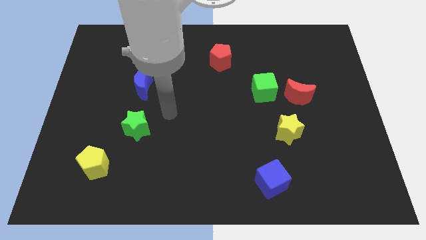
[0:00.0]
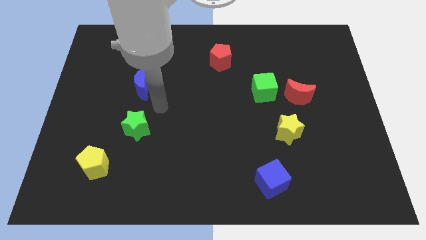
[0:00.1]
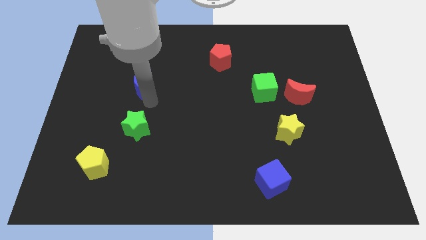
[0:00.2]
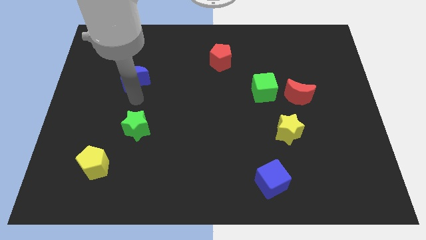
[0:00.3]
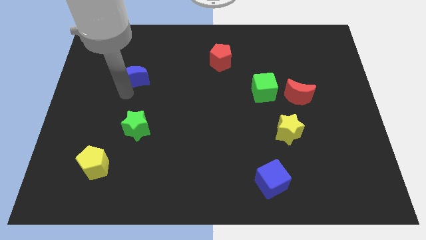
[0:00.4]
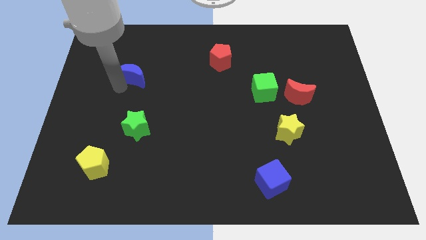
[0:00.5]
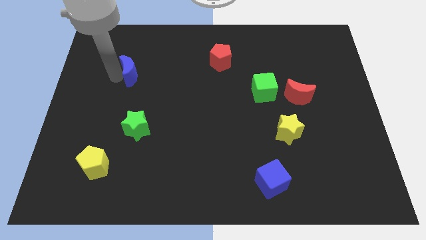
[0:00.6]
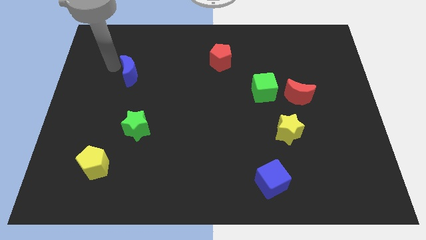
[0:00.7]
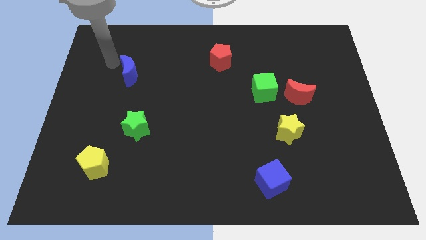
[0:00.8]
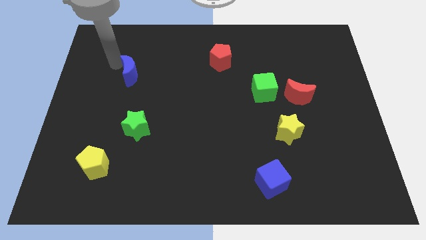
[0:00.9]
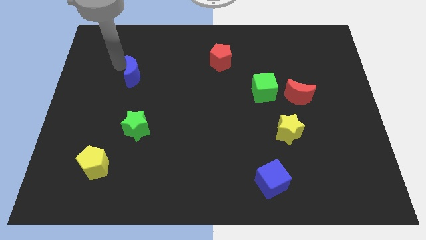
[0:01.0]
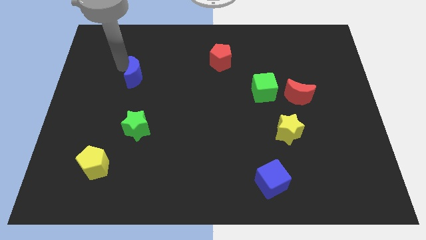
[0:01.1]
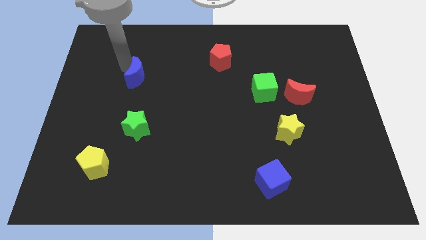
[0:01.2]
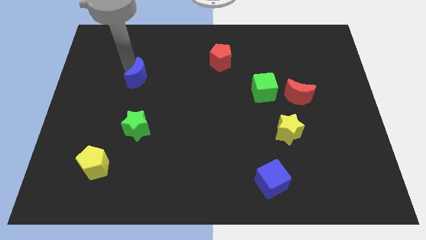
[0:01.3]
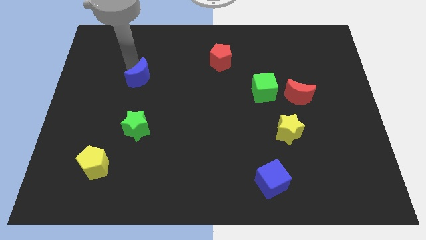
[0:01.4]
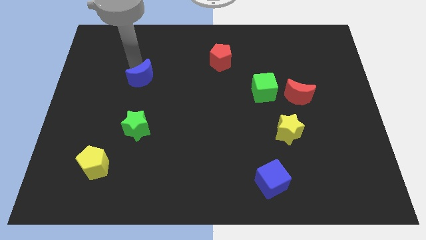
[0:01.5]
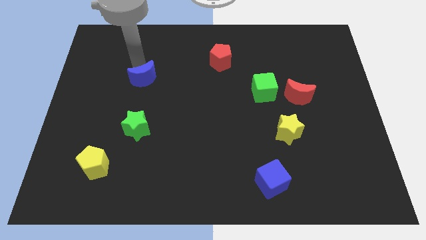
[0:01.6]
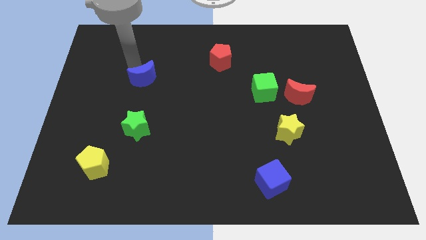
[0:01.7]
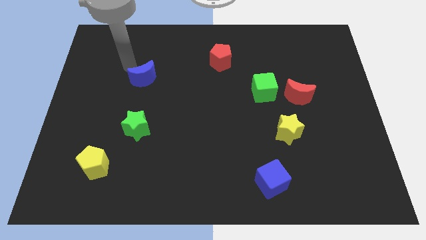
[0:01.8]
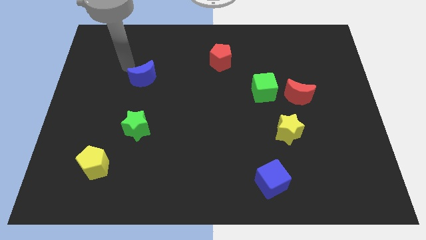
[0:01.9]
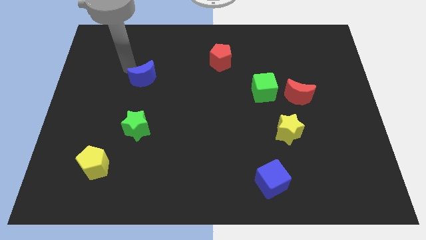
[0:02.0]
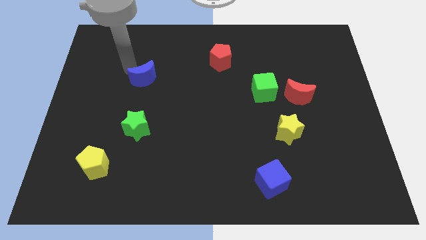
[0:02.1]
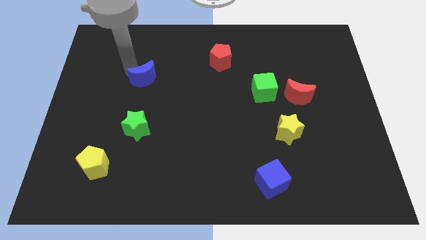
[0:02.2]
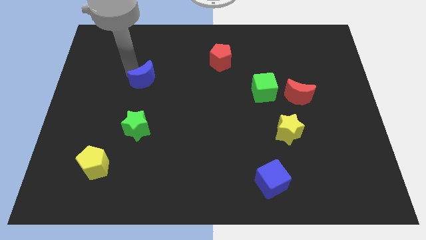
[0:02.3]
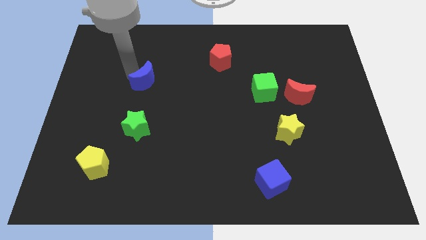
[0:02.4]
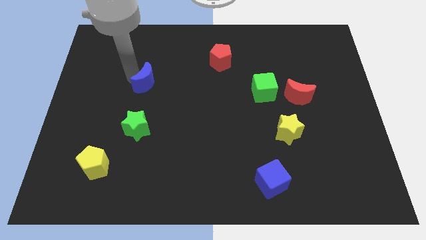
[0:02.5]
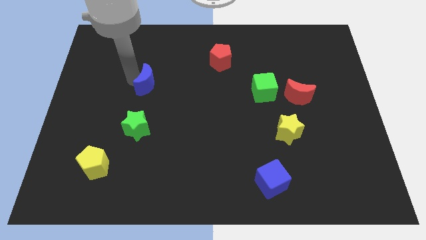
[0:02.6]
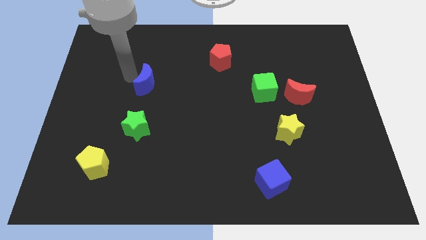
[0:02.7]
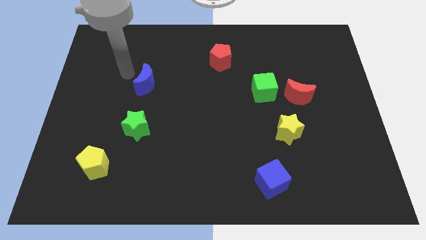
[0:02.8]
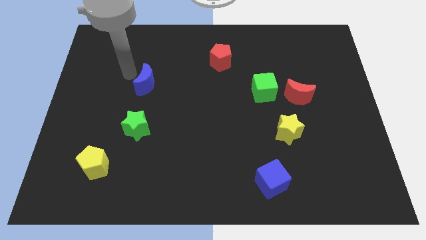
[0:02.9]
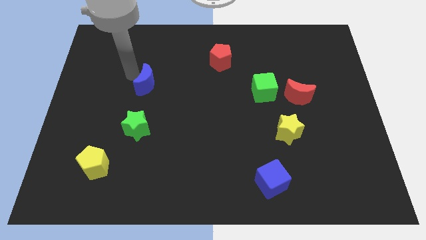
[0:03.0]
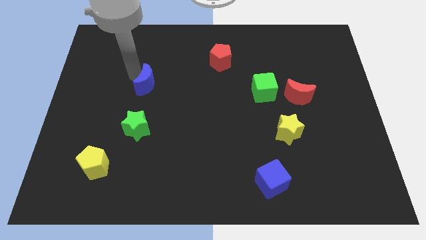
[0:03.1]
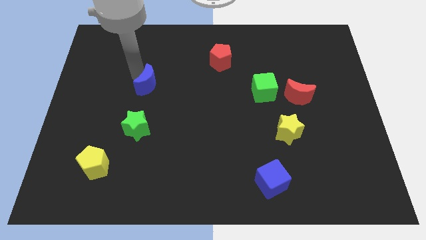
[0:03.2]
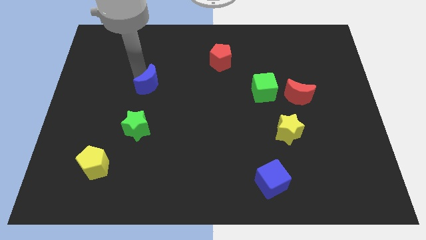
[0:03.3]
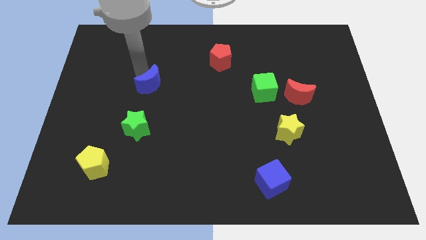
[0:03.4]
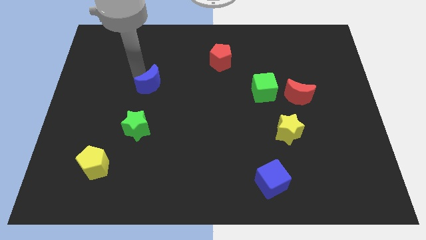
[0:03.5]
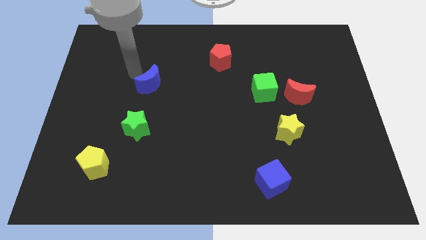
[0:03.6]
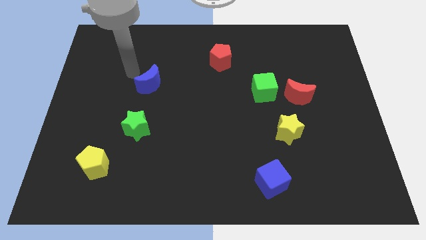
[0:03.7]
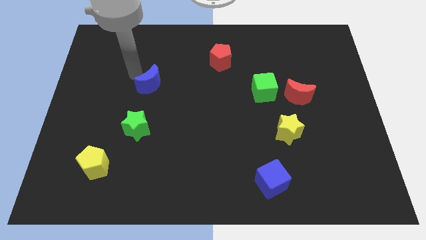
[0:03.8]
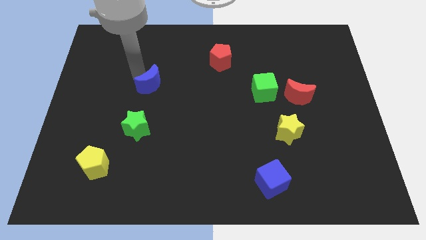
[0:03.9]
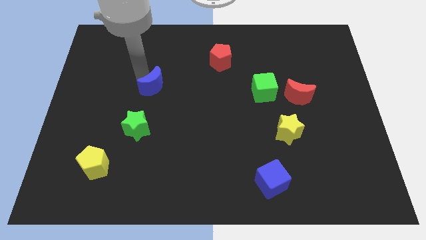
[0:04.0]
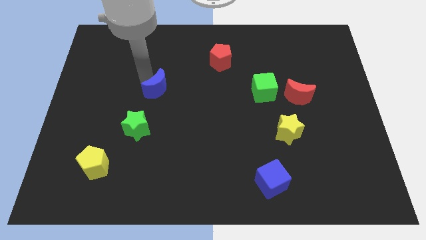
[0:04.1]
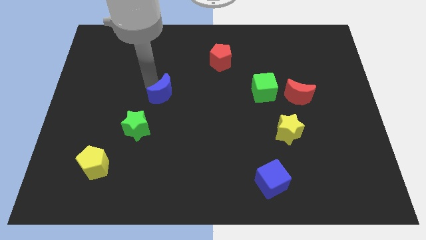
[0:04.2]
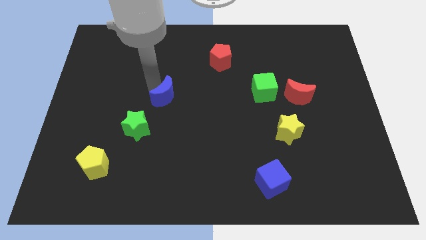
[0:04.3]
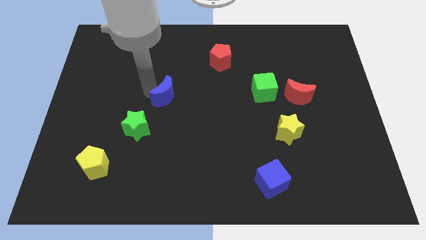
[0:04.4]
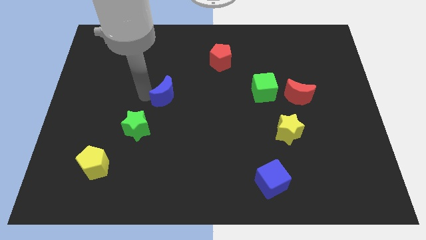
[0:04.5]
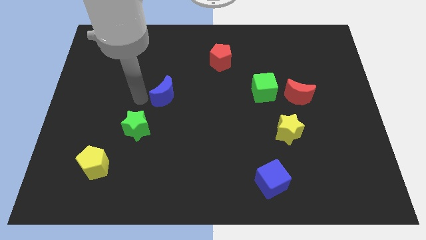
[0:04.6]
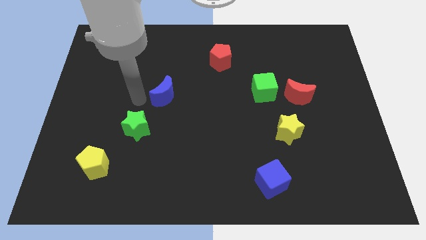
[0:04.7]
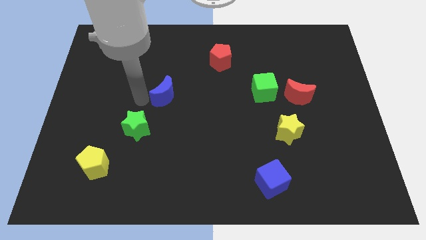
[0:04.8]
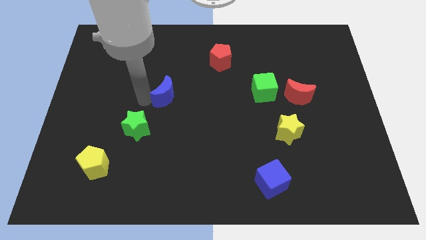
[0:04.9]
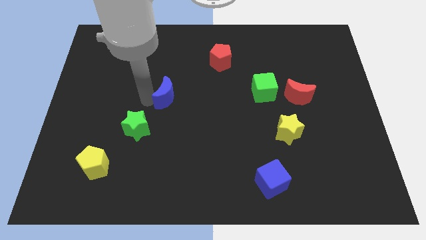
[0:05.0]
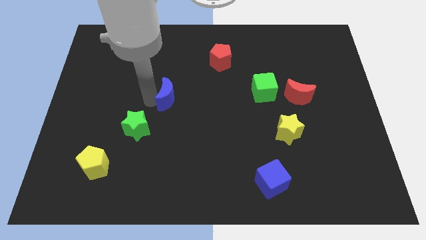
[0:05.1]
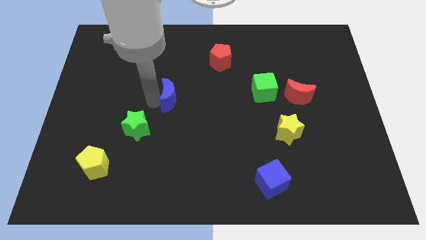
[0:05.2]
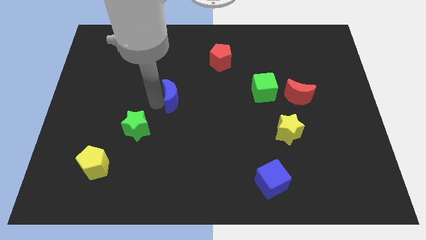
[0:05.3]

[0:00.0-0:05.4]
slightly move the blue moon right

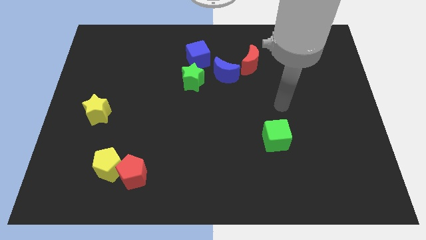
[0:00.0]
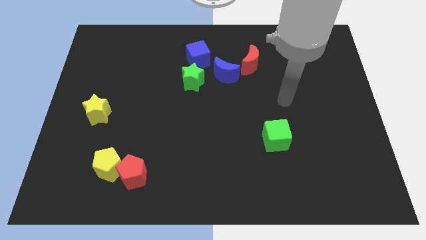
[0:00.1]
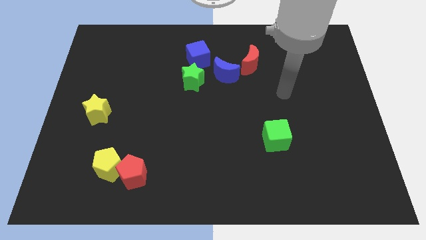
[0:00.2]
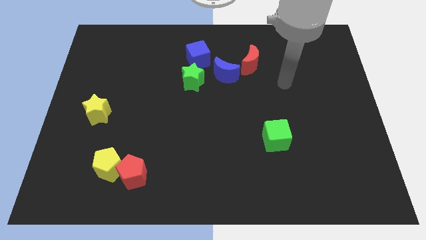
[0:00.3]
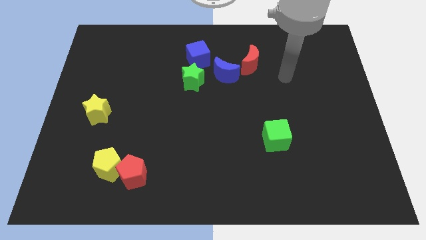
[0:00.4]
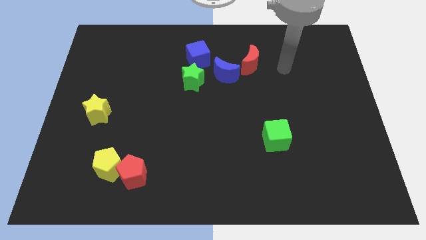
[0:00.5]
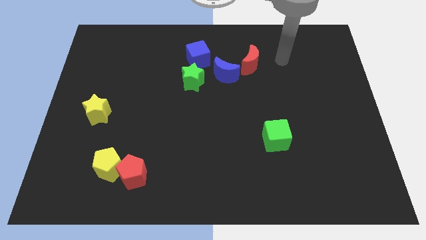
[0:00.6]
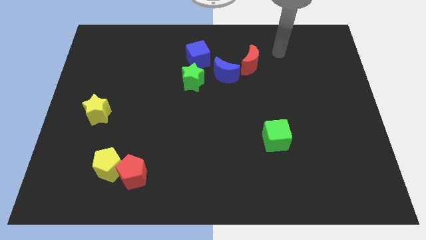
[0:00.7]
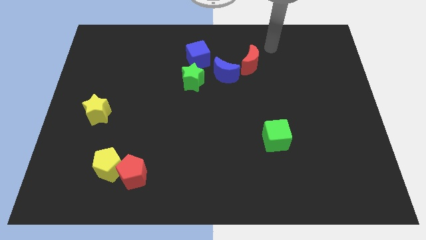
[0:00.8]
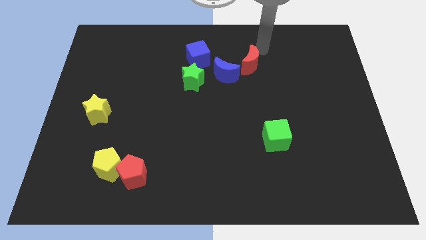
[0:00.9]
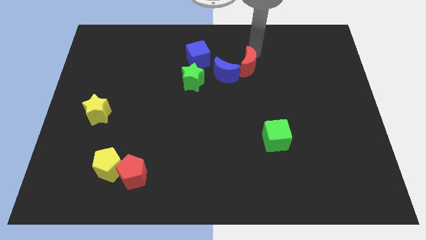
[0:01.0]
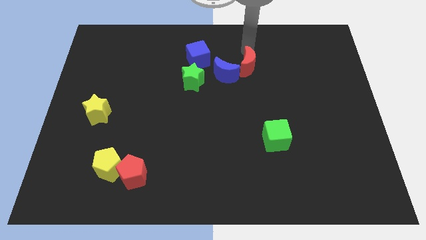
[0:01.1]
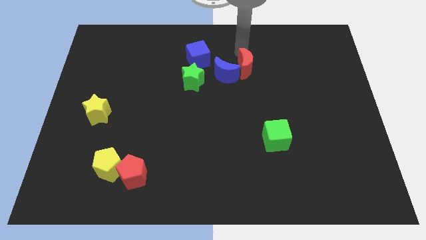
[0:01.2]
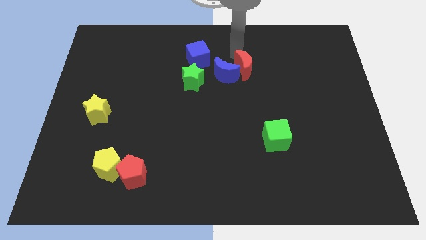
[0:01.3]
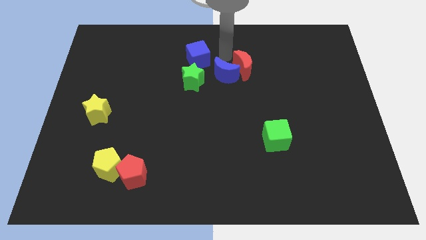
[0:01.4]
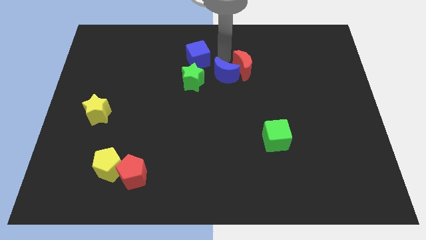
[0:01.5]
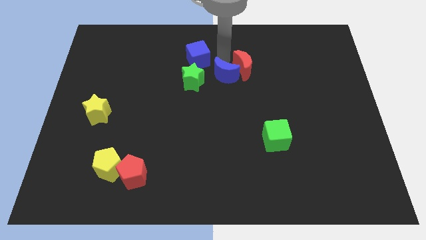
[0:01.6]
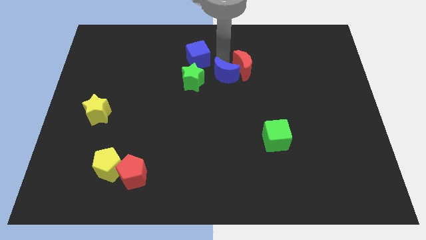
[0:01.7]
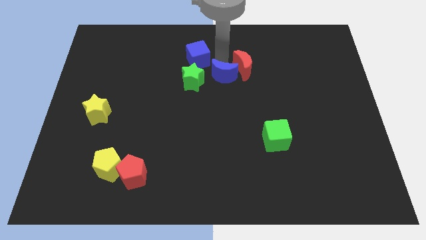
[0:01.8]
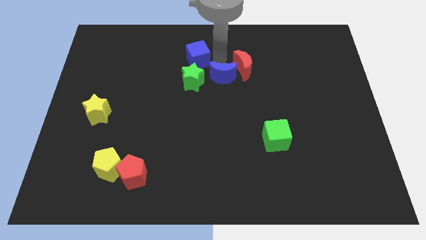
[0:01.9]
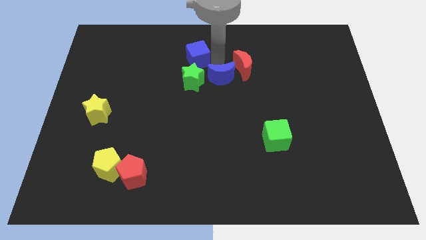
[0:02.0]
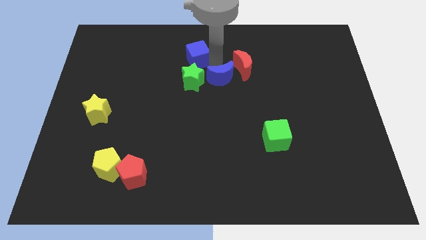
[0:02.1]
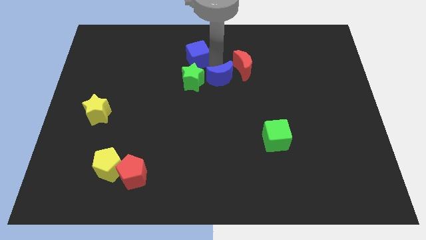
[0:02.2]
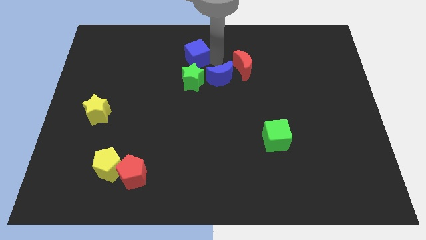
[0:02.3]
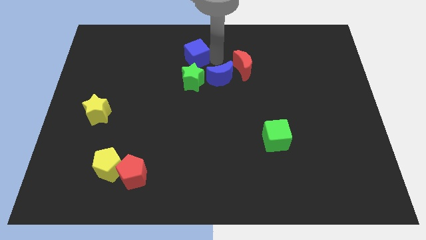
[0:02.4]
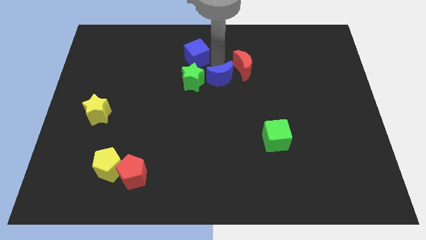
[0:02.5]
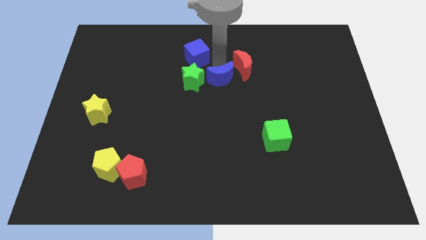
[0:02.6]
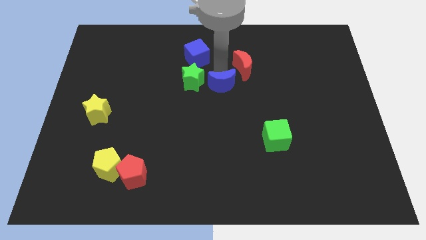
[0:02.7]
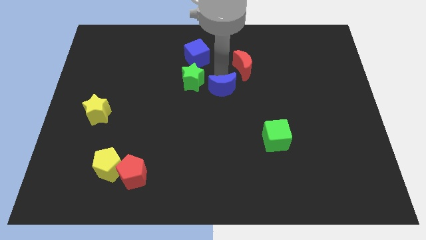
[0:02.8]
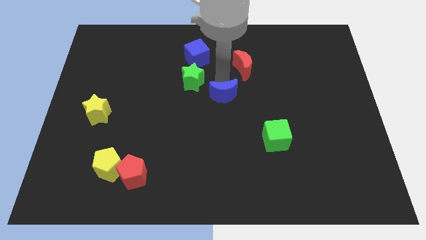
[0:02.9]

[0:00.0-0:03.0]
push the blue moon a bit downwards
